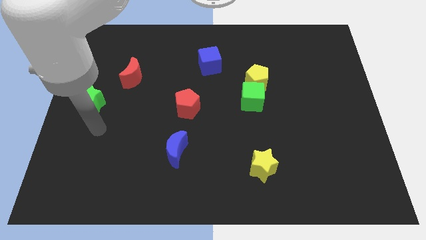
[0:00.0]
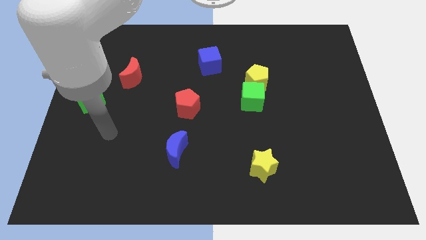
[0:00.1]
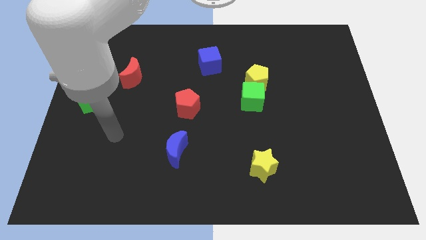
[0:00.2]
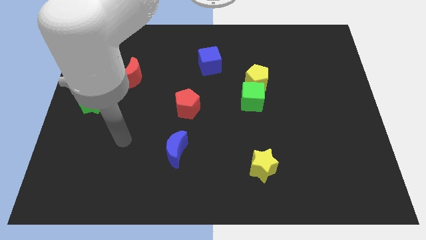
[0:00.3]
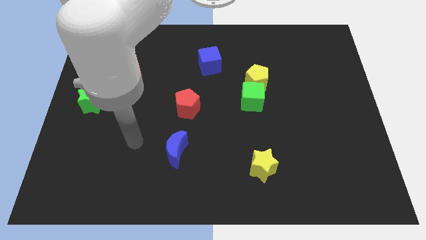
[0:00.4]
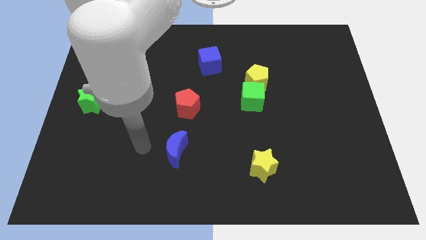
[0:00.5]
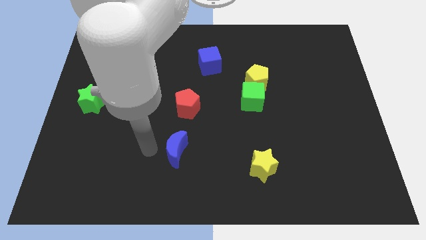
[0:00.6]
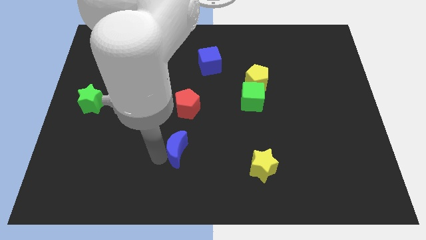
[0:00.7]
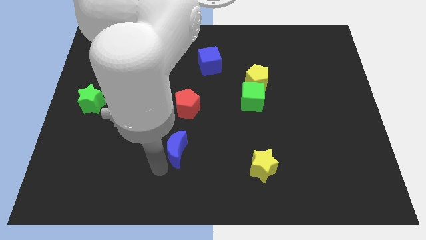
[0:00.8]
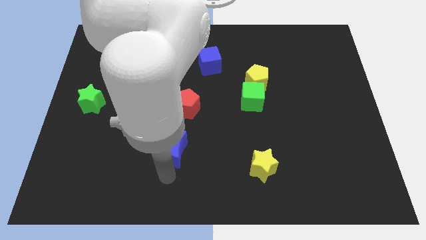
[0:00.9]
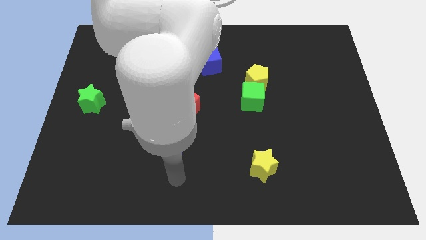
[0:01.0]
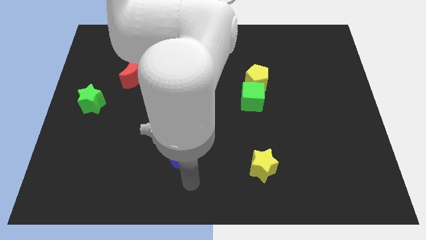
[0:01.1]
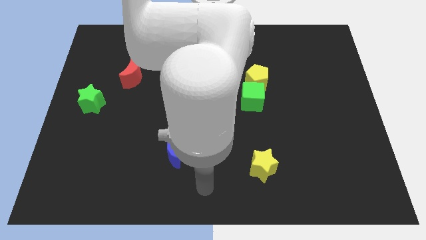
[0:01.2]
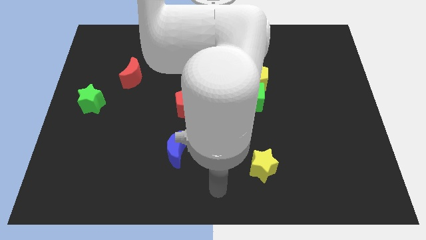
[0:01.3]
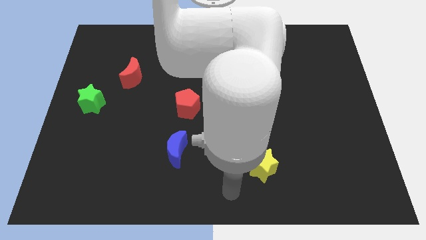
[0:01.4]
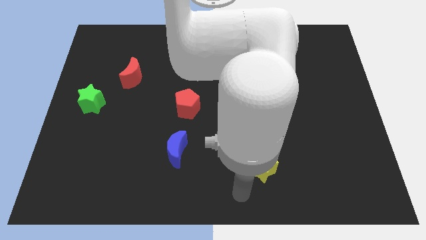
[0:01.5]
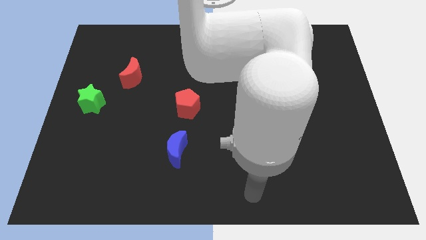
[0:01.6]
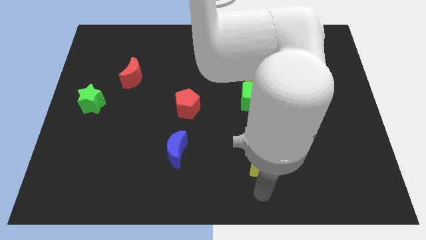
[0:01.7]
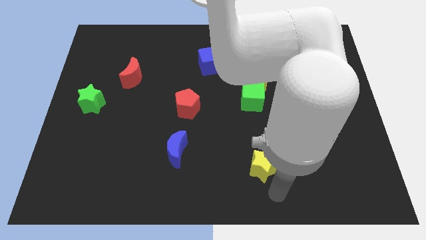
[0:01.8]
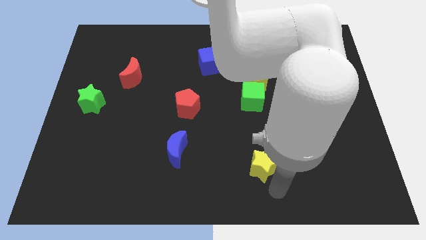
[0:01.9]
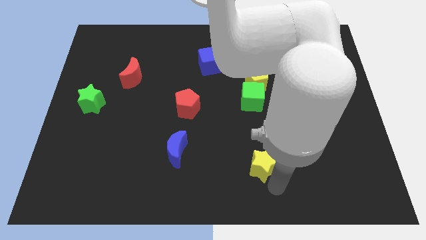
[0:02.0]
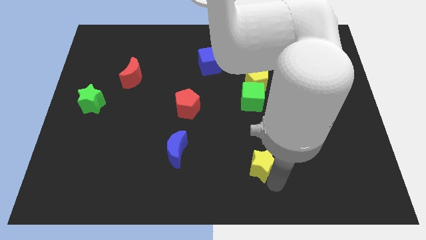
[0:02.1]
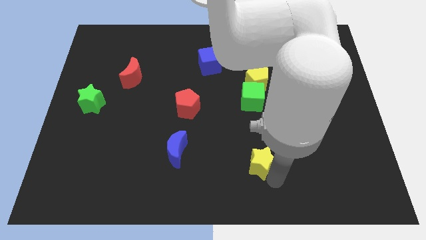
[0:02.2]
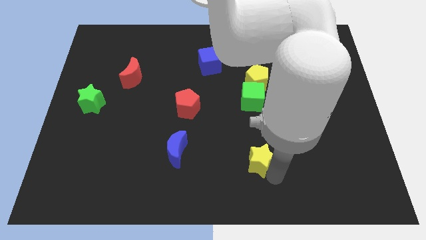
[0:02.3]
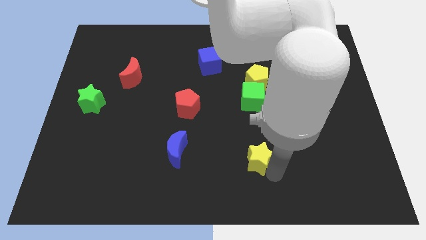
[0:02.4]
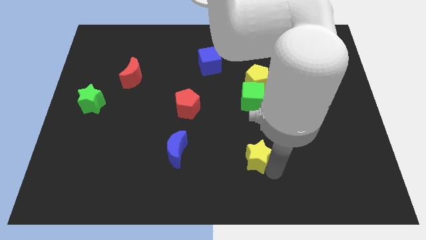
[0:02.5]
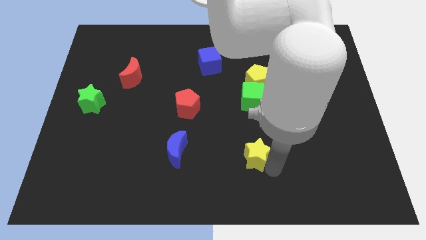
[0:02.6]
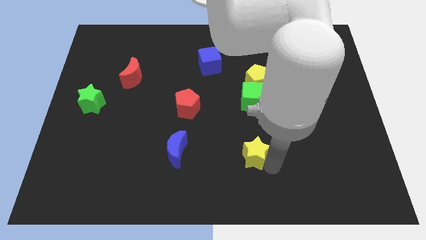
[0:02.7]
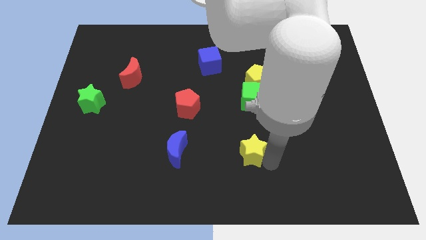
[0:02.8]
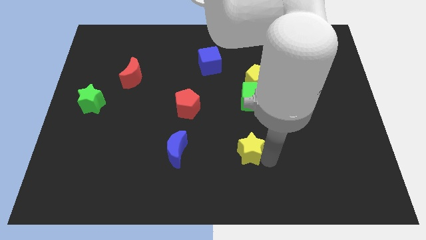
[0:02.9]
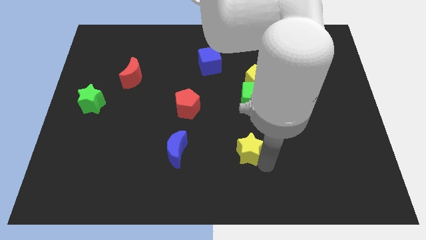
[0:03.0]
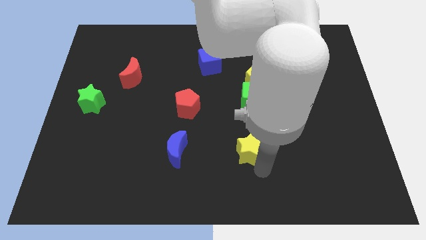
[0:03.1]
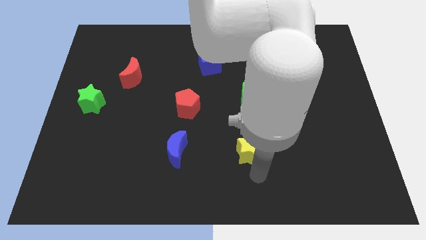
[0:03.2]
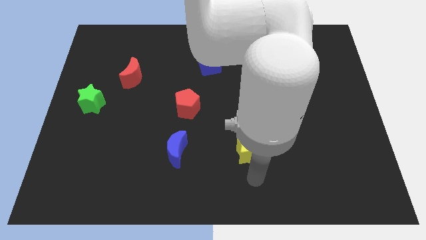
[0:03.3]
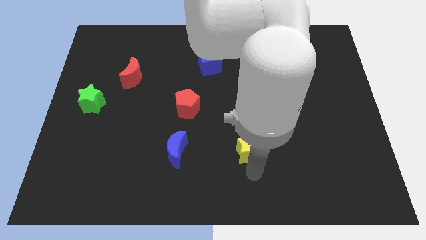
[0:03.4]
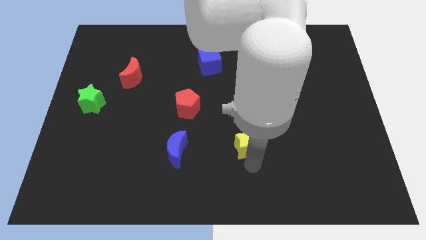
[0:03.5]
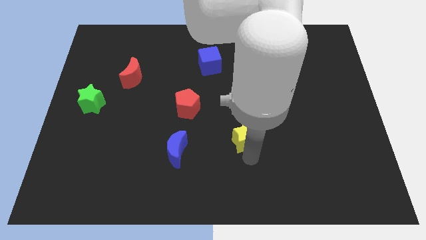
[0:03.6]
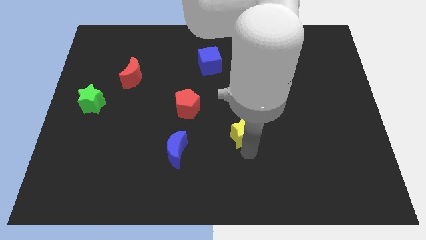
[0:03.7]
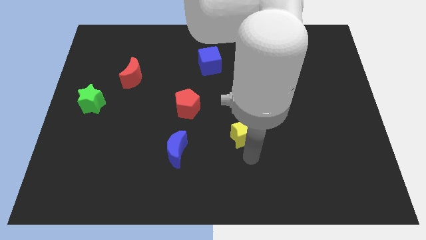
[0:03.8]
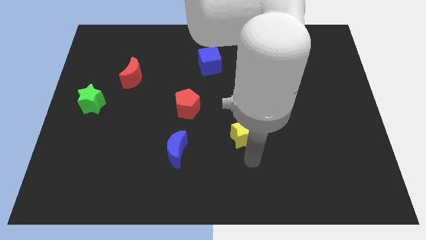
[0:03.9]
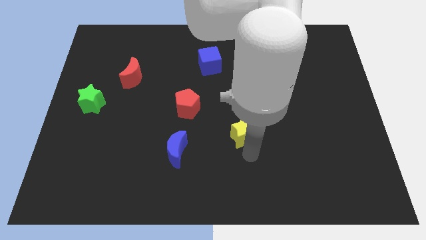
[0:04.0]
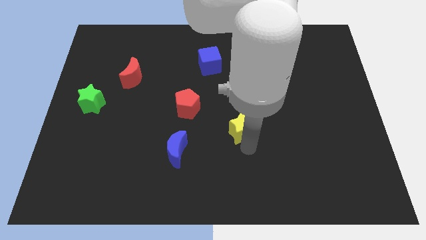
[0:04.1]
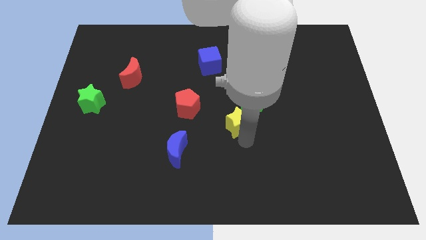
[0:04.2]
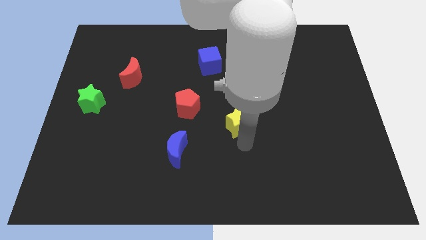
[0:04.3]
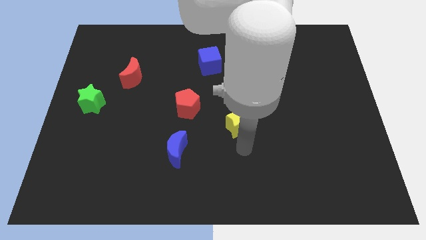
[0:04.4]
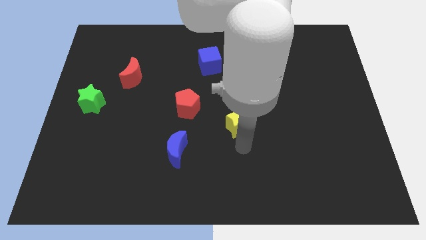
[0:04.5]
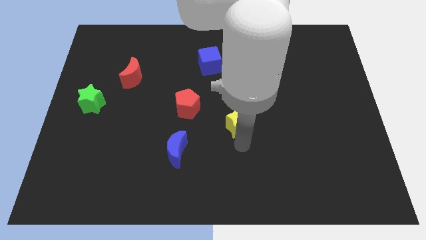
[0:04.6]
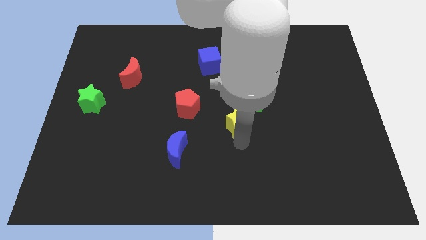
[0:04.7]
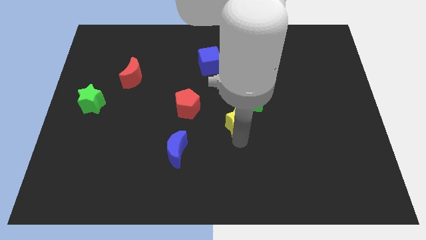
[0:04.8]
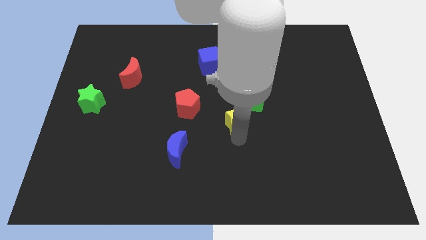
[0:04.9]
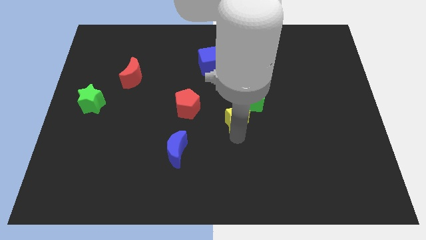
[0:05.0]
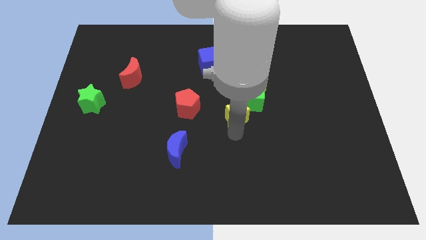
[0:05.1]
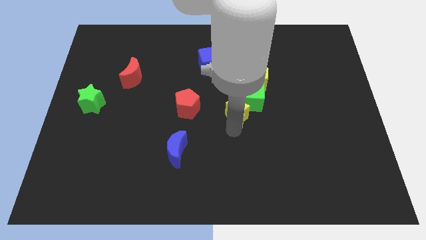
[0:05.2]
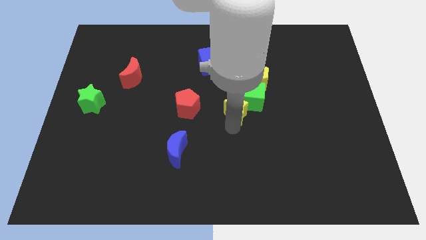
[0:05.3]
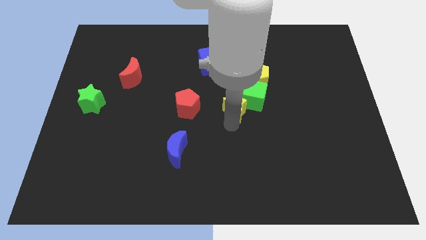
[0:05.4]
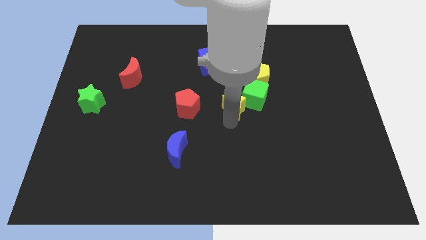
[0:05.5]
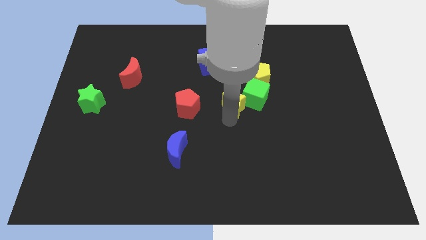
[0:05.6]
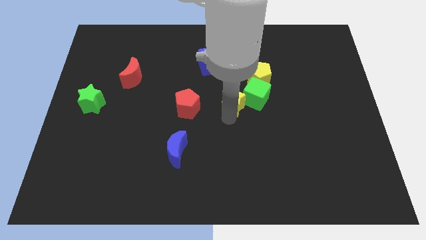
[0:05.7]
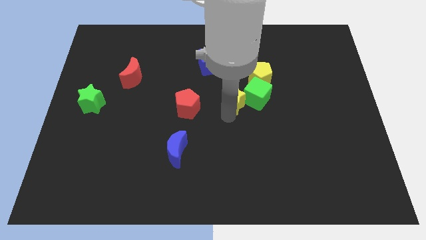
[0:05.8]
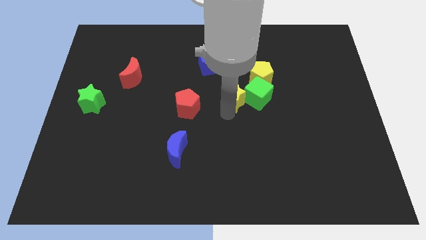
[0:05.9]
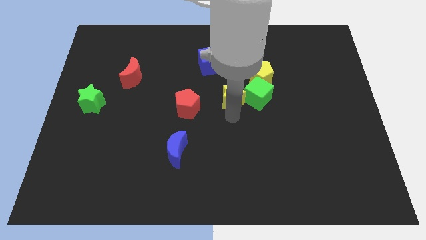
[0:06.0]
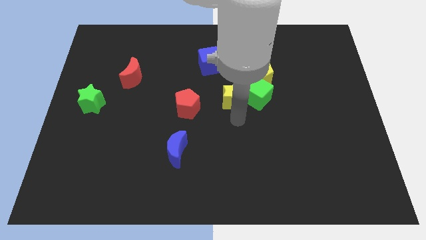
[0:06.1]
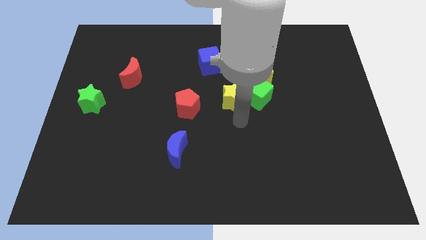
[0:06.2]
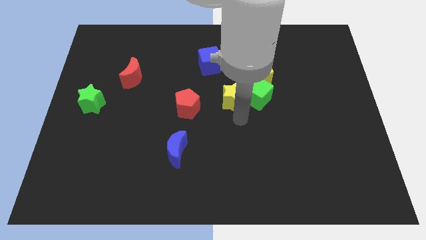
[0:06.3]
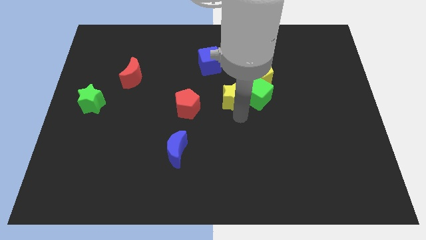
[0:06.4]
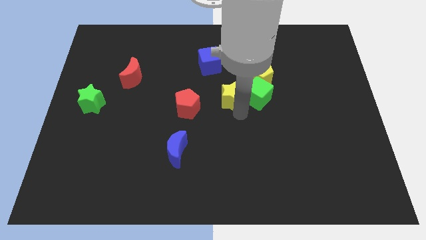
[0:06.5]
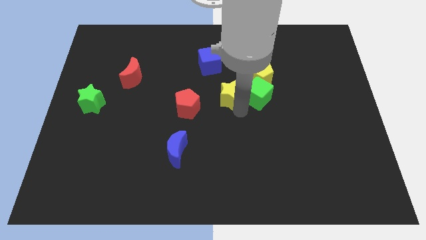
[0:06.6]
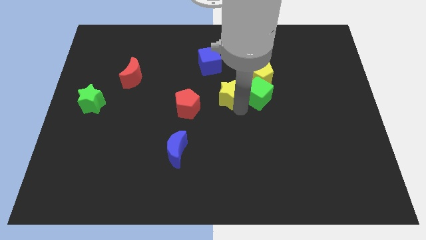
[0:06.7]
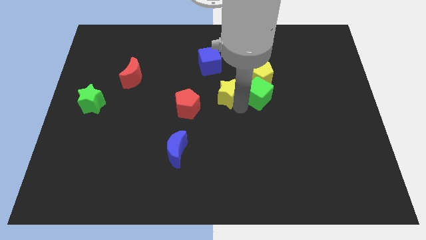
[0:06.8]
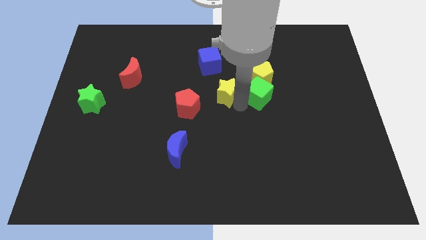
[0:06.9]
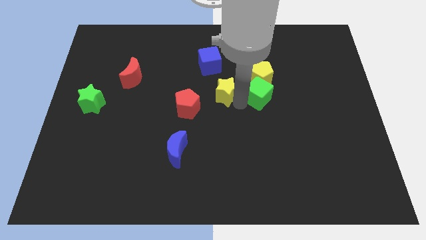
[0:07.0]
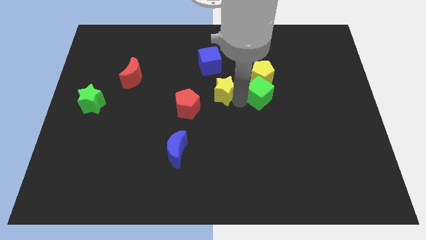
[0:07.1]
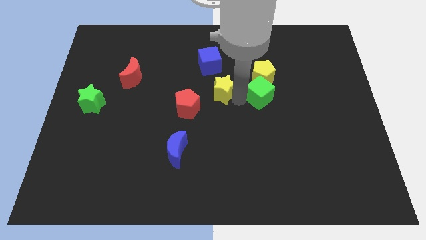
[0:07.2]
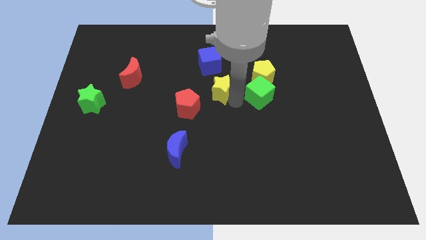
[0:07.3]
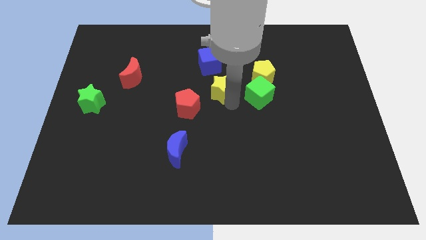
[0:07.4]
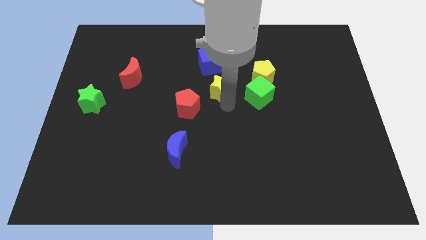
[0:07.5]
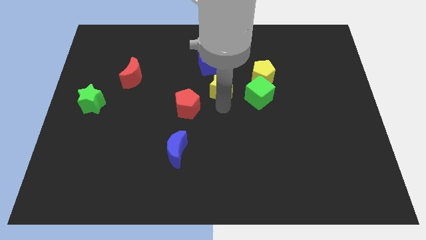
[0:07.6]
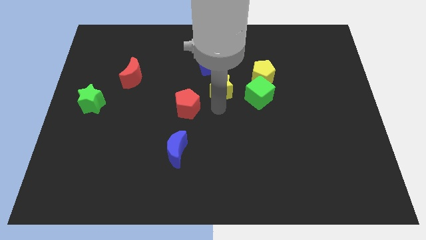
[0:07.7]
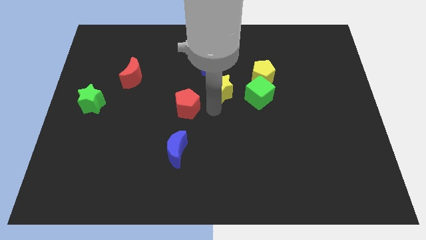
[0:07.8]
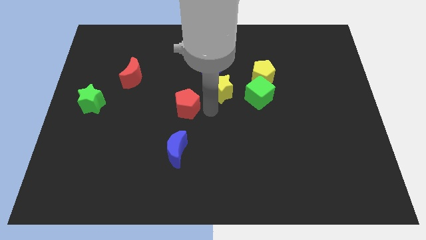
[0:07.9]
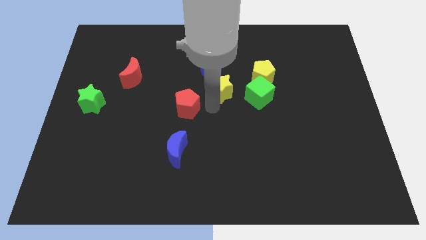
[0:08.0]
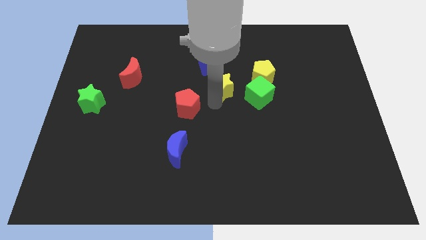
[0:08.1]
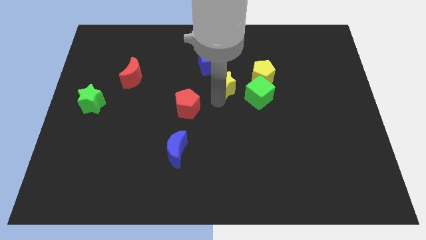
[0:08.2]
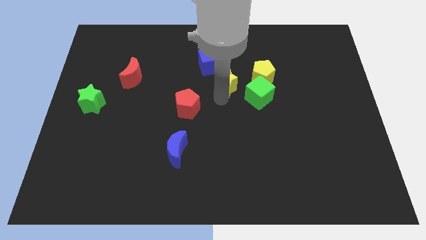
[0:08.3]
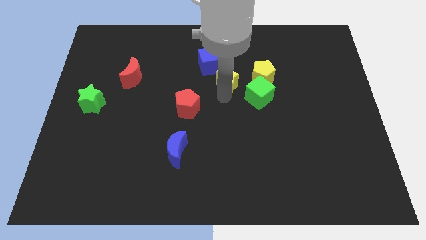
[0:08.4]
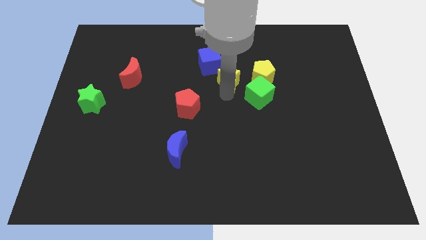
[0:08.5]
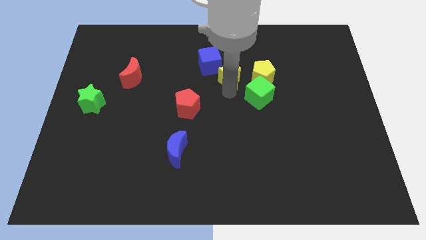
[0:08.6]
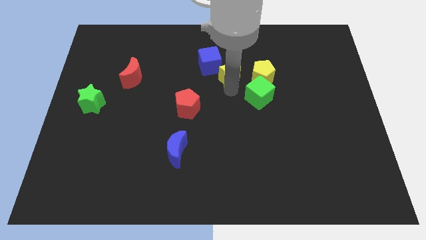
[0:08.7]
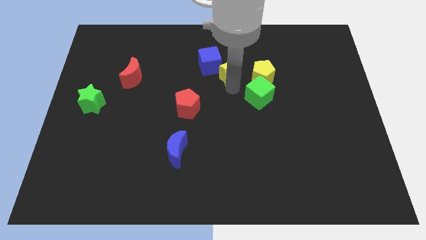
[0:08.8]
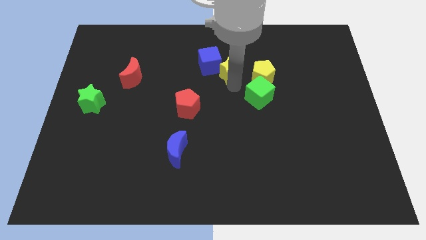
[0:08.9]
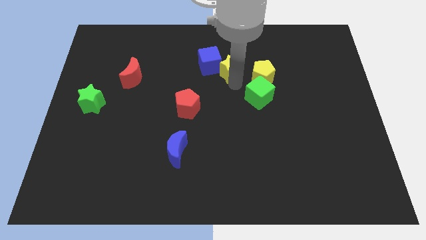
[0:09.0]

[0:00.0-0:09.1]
slide the yellow star to the blue cube
